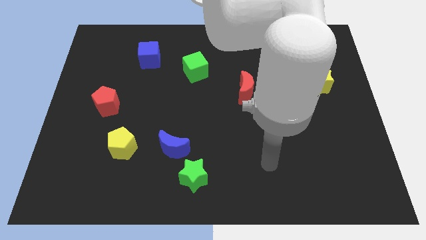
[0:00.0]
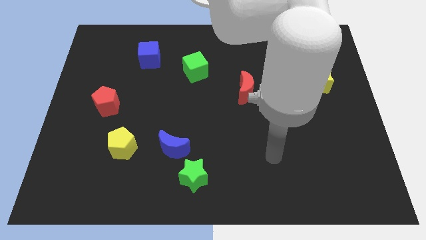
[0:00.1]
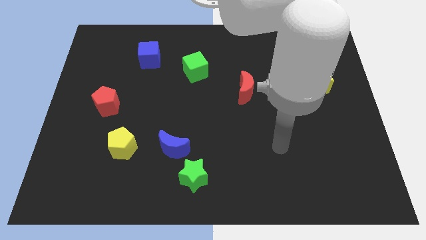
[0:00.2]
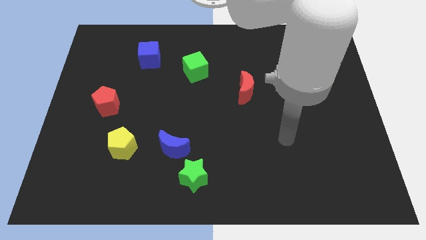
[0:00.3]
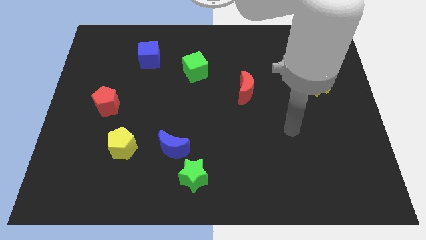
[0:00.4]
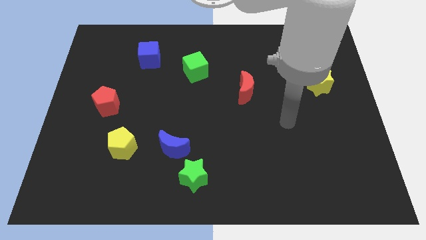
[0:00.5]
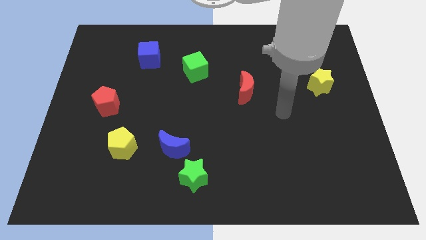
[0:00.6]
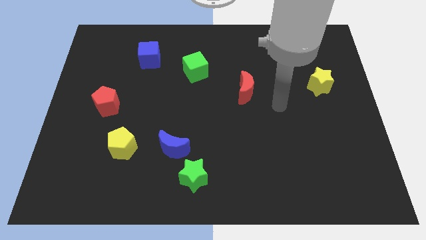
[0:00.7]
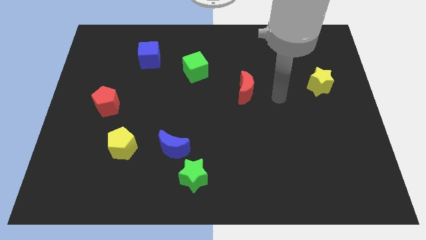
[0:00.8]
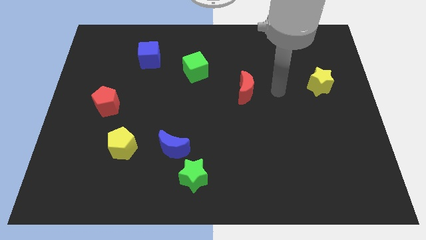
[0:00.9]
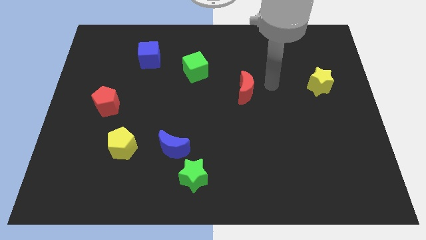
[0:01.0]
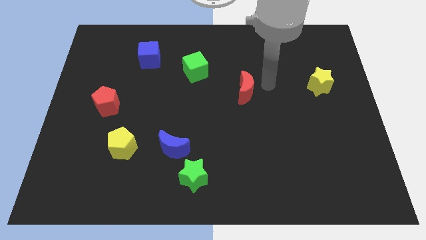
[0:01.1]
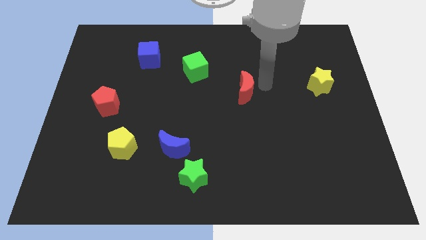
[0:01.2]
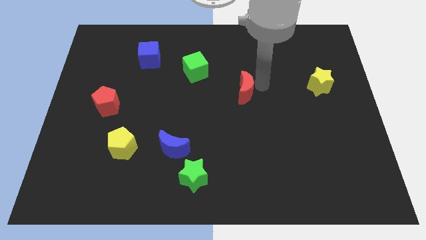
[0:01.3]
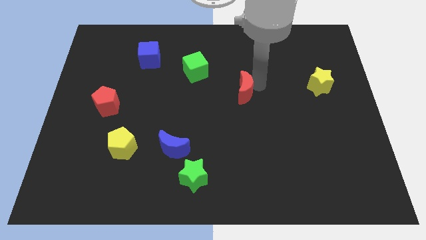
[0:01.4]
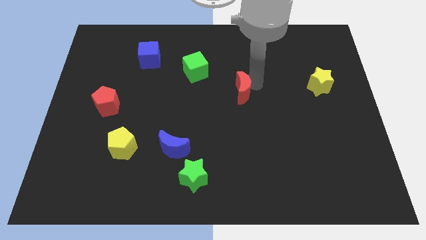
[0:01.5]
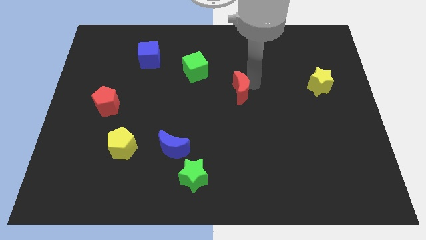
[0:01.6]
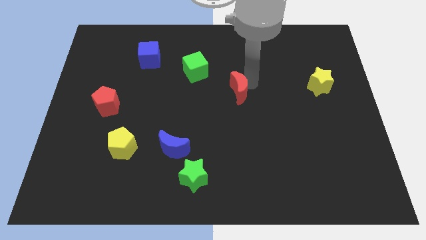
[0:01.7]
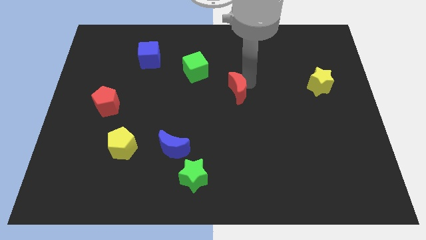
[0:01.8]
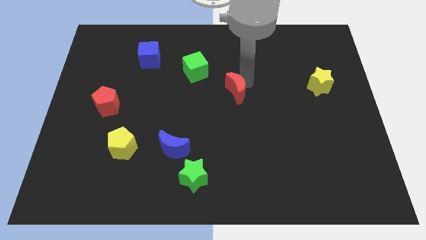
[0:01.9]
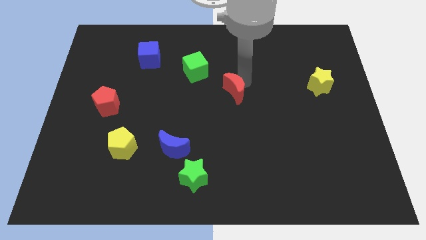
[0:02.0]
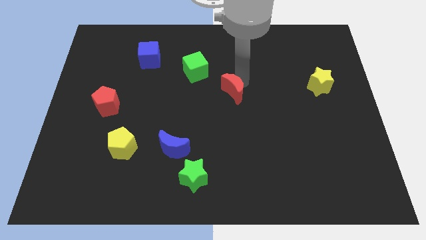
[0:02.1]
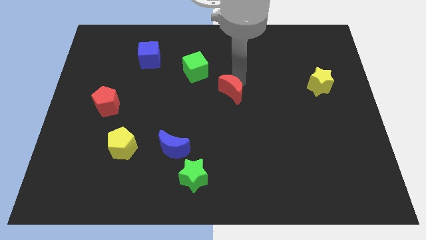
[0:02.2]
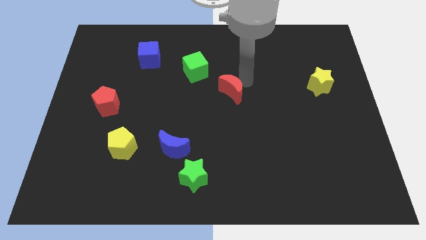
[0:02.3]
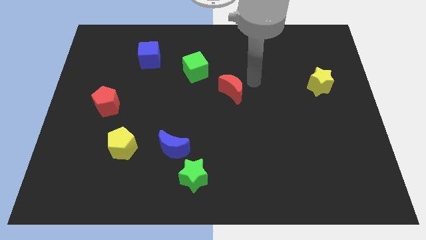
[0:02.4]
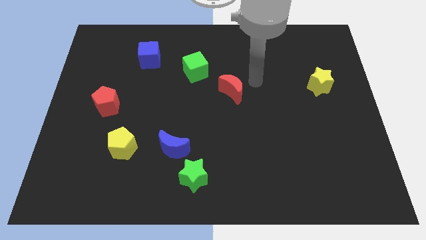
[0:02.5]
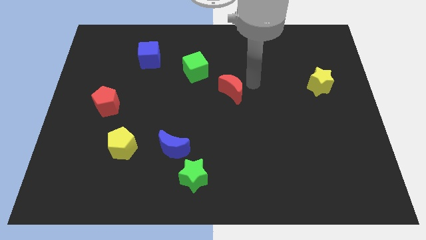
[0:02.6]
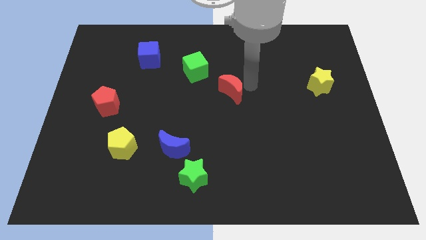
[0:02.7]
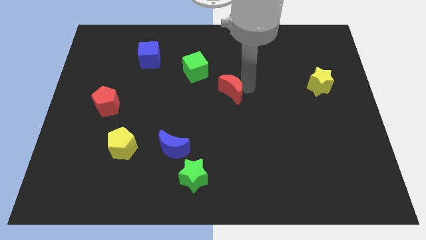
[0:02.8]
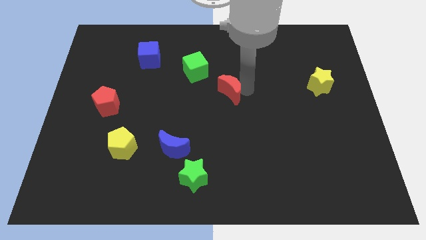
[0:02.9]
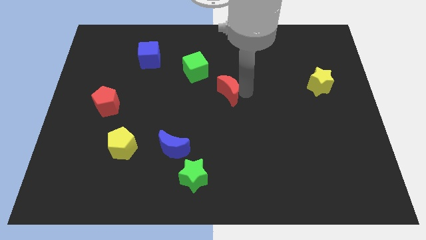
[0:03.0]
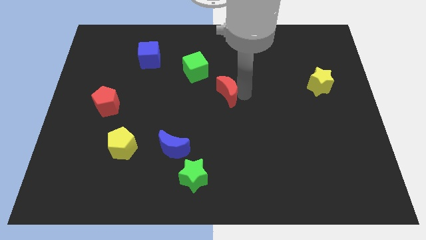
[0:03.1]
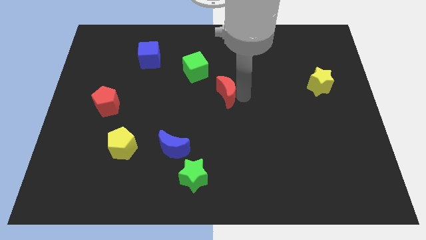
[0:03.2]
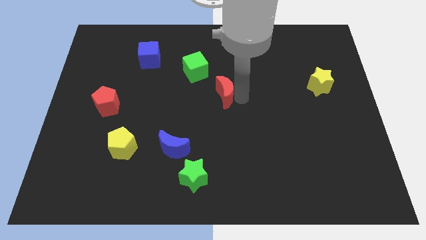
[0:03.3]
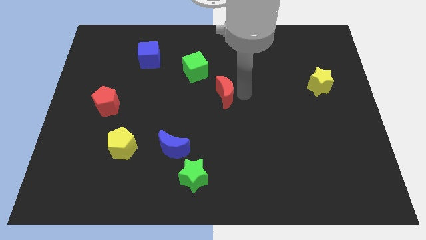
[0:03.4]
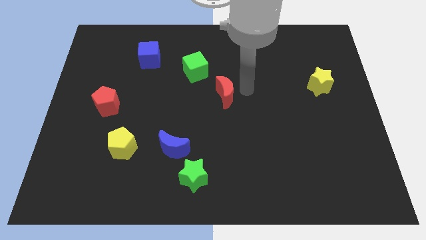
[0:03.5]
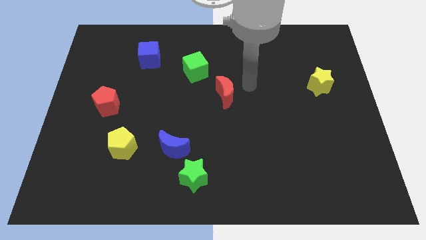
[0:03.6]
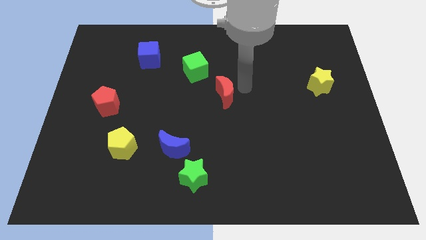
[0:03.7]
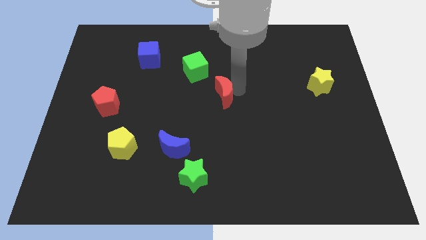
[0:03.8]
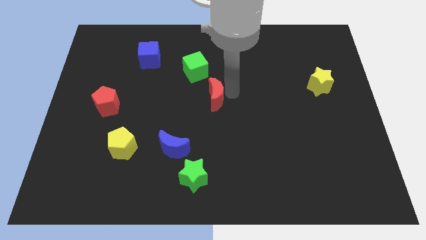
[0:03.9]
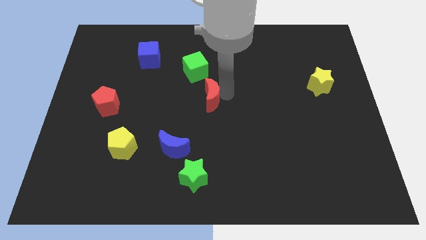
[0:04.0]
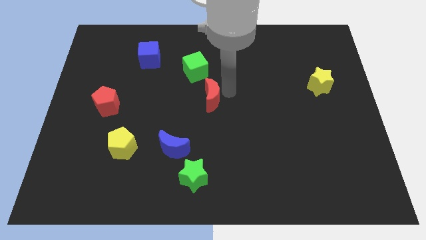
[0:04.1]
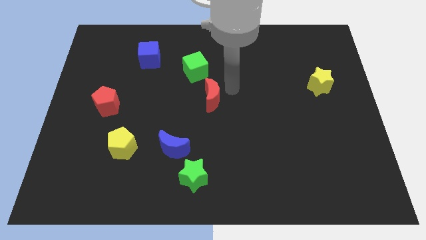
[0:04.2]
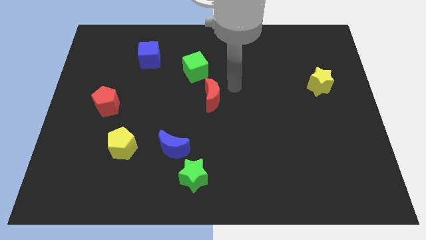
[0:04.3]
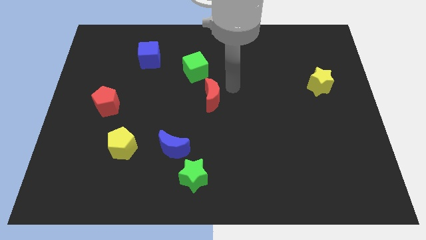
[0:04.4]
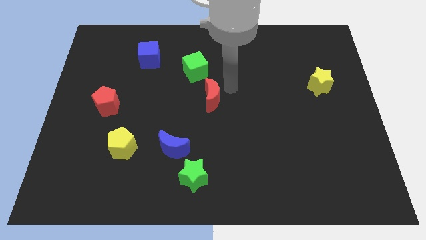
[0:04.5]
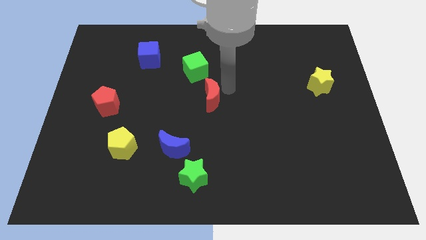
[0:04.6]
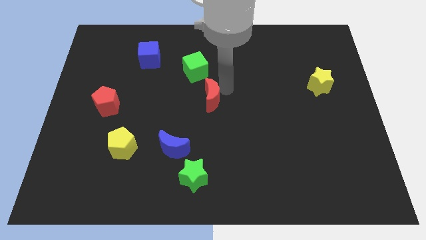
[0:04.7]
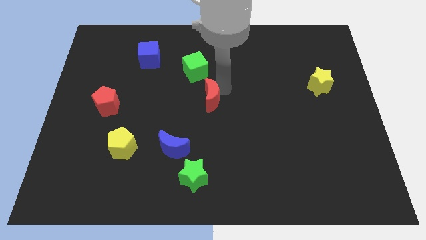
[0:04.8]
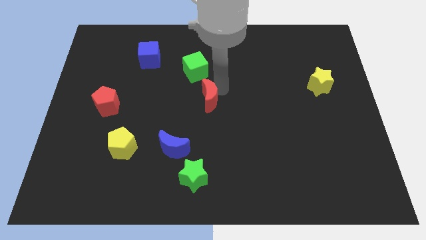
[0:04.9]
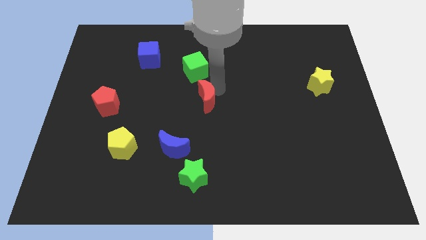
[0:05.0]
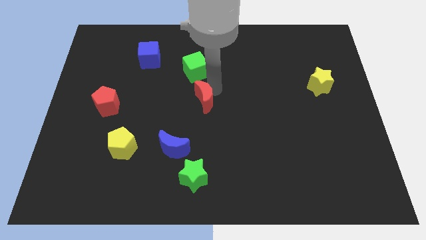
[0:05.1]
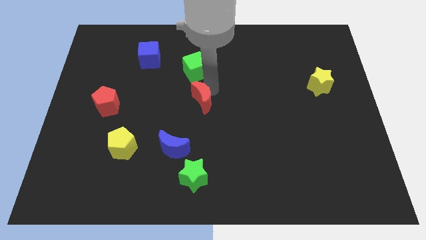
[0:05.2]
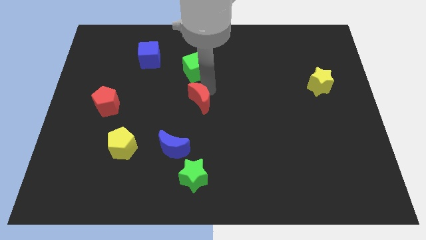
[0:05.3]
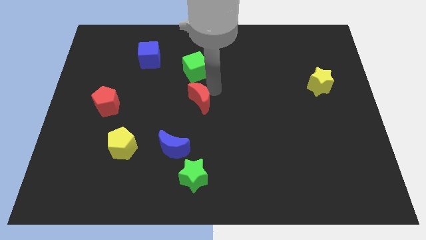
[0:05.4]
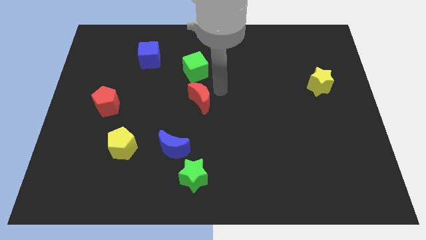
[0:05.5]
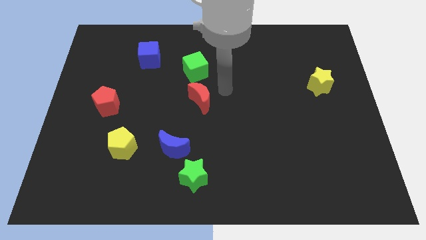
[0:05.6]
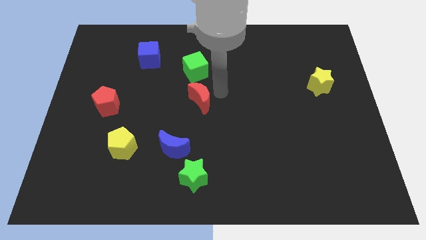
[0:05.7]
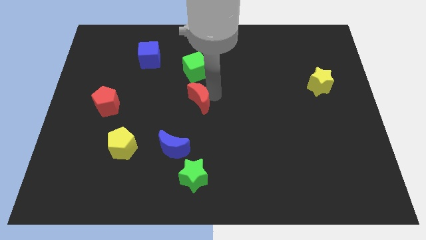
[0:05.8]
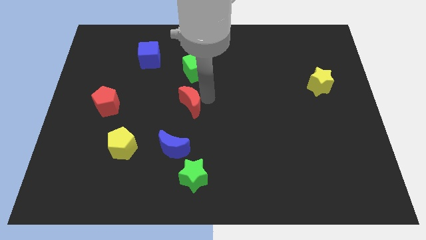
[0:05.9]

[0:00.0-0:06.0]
put the red moon to the top of the blue moon

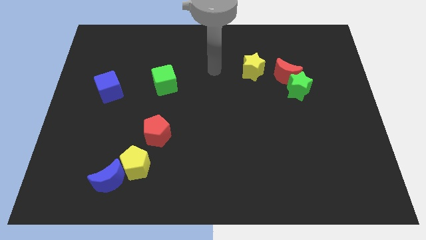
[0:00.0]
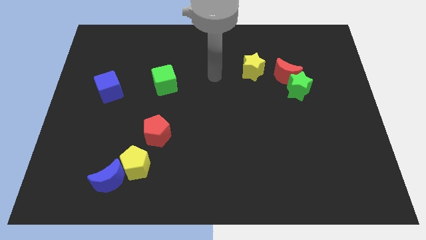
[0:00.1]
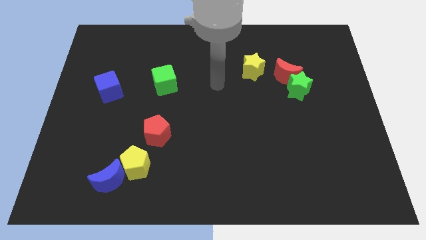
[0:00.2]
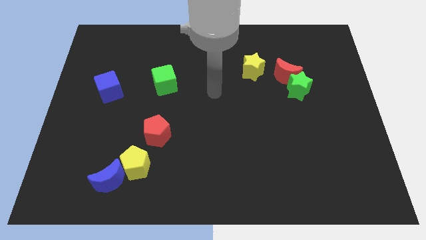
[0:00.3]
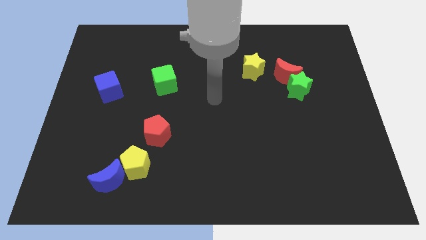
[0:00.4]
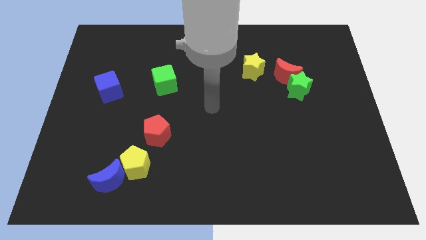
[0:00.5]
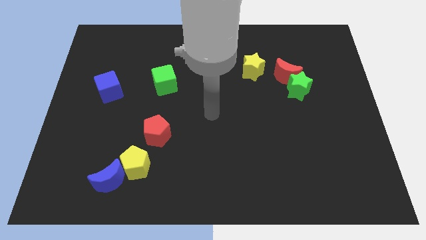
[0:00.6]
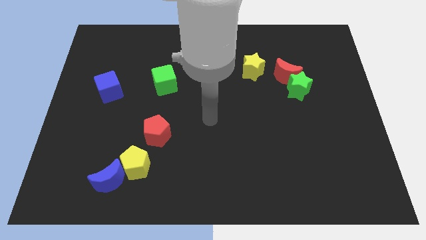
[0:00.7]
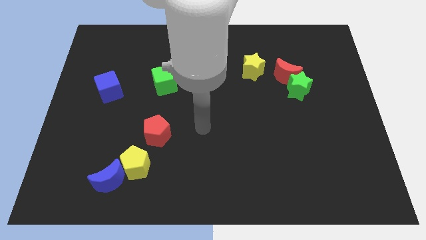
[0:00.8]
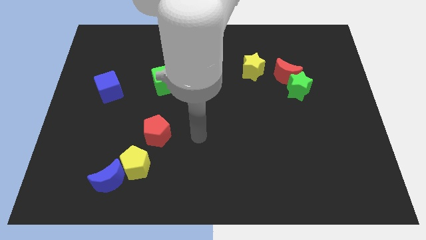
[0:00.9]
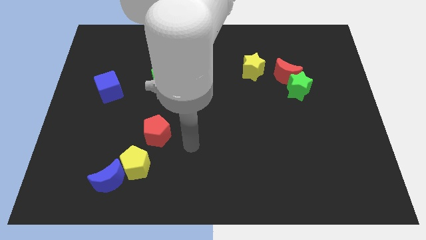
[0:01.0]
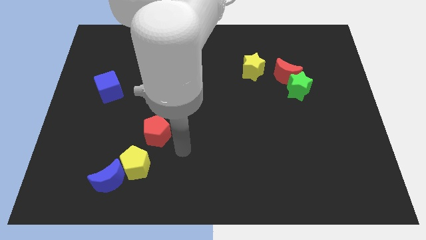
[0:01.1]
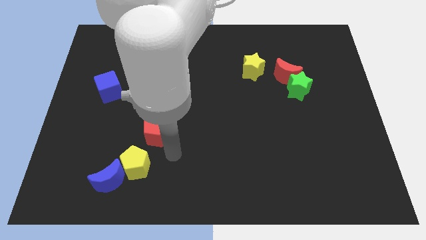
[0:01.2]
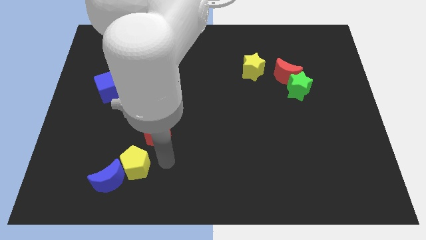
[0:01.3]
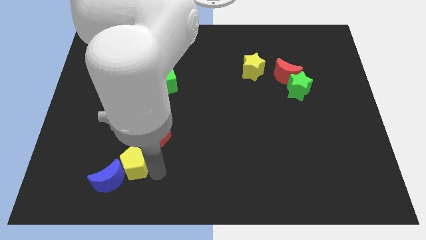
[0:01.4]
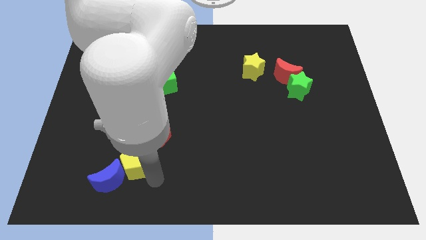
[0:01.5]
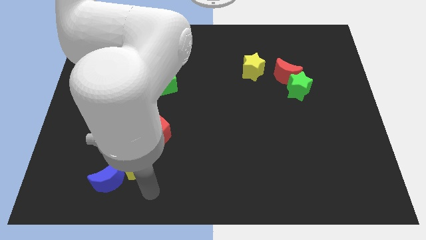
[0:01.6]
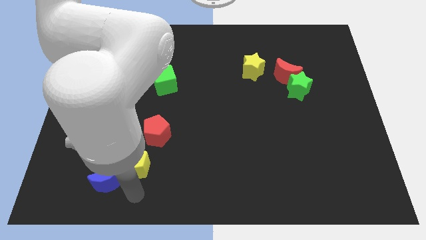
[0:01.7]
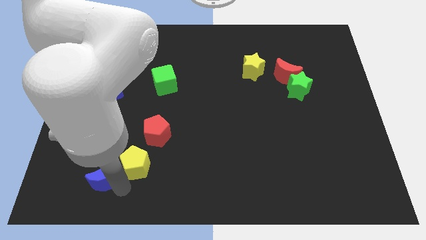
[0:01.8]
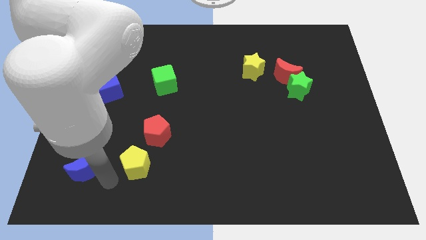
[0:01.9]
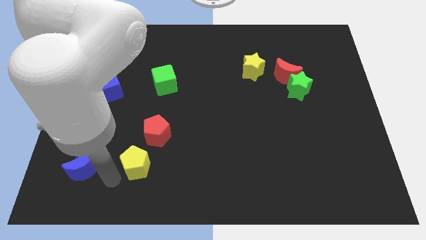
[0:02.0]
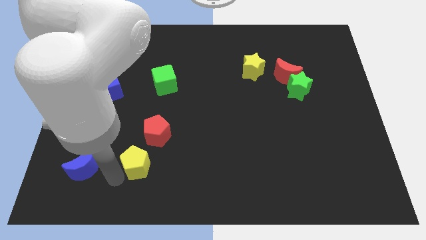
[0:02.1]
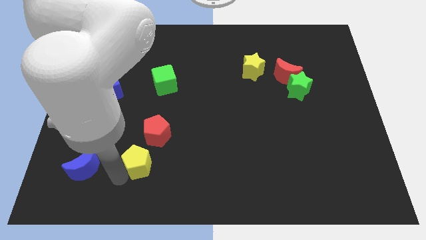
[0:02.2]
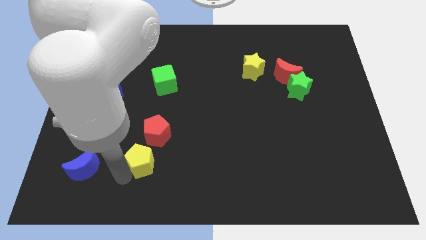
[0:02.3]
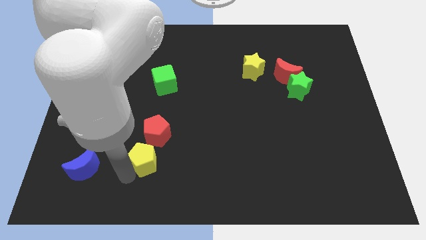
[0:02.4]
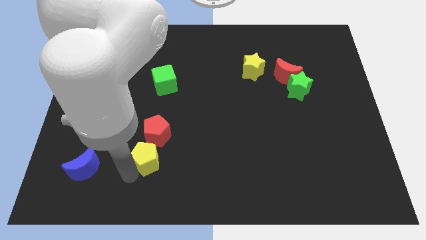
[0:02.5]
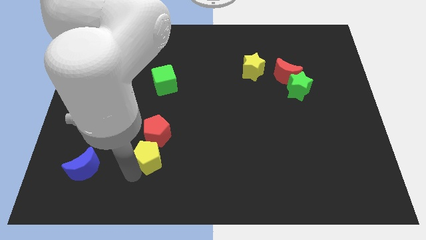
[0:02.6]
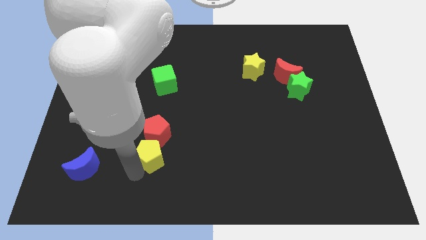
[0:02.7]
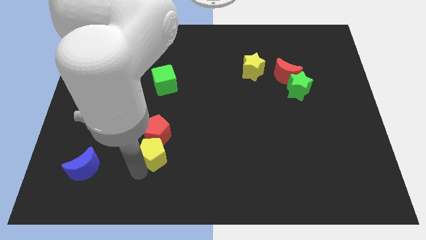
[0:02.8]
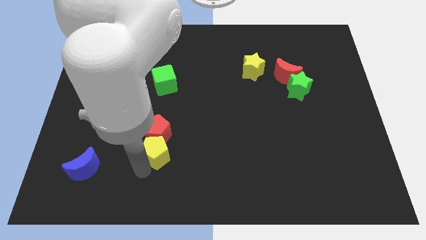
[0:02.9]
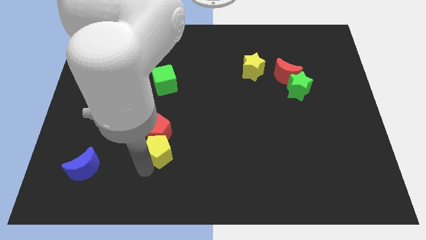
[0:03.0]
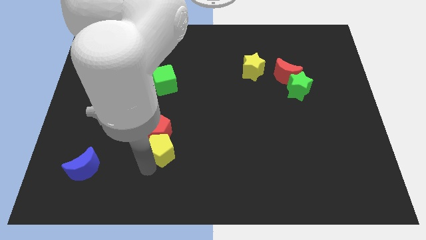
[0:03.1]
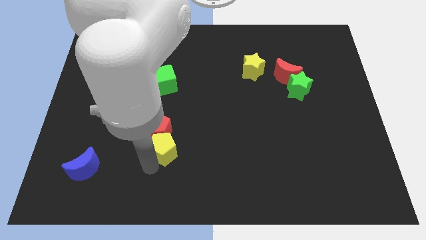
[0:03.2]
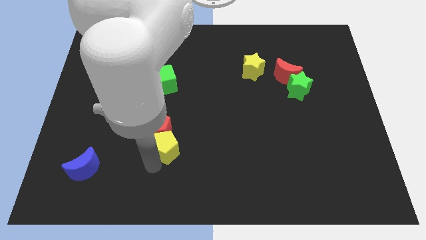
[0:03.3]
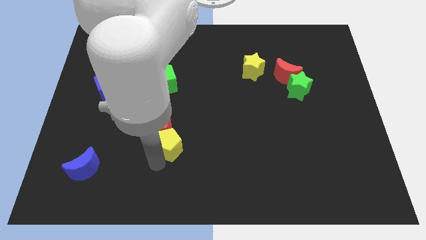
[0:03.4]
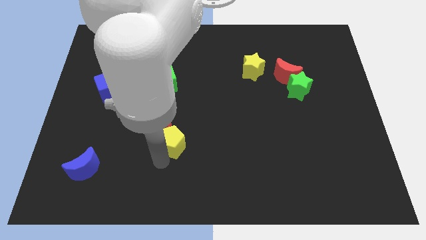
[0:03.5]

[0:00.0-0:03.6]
put the yellow pentagon to the right side of the red pentagon
